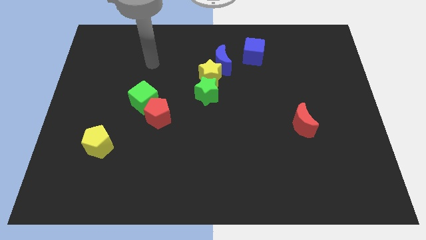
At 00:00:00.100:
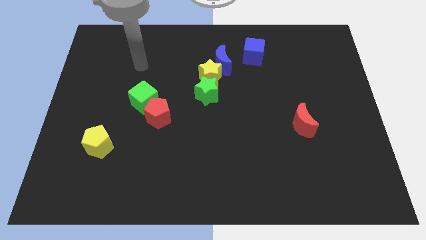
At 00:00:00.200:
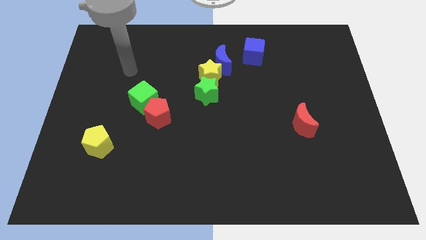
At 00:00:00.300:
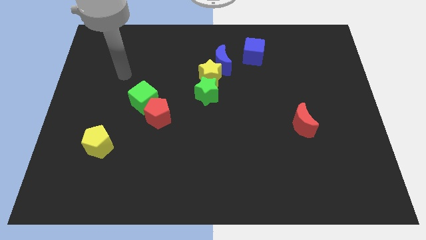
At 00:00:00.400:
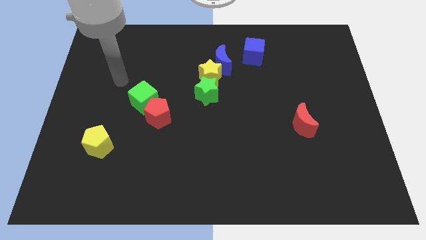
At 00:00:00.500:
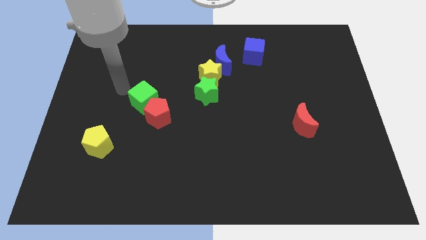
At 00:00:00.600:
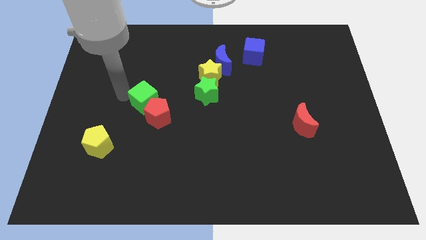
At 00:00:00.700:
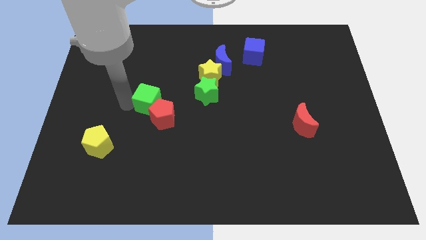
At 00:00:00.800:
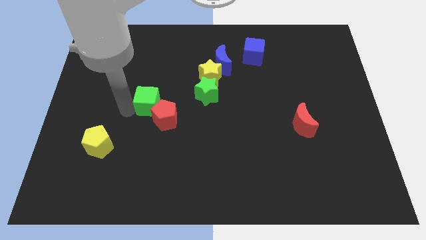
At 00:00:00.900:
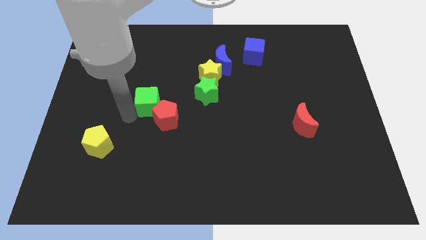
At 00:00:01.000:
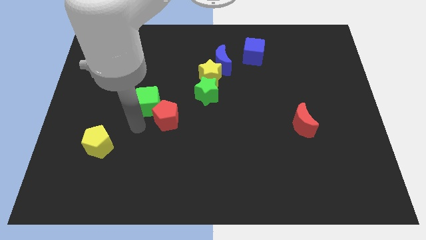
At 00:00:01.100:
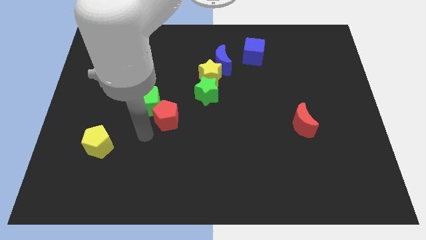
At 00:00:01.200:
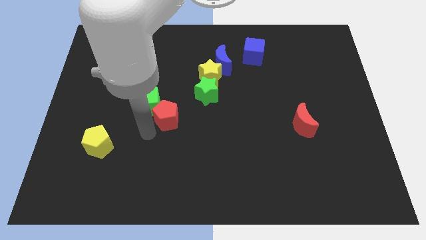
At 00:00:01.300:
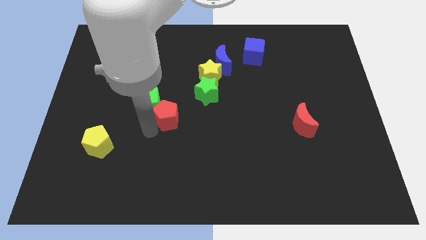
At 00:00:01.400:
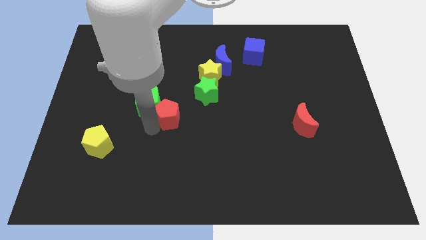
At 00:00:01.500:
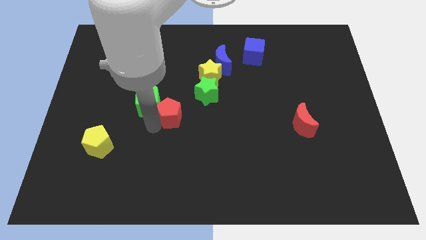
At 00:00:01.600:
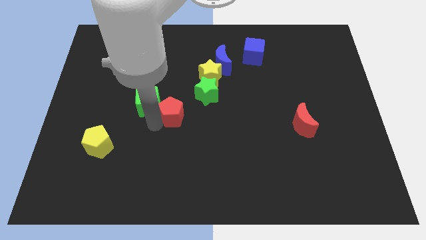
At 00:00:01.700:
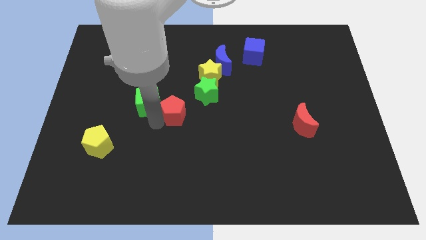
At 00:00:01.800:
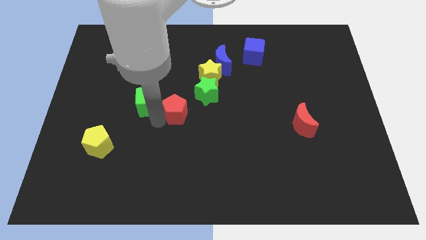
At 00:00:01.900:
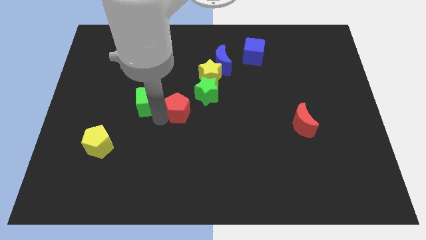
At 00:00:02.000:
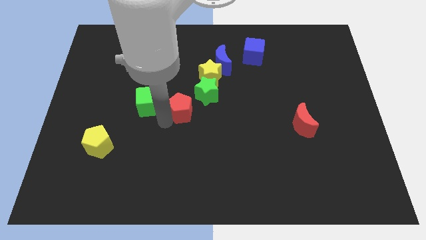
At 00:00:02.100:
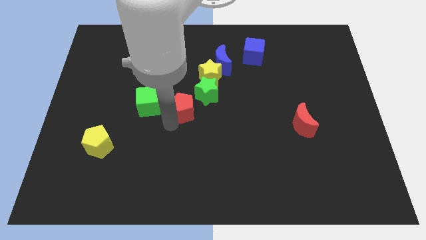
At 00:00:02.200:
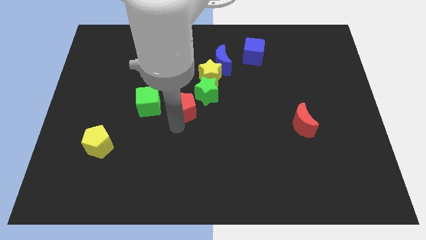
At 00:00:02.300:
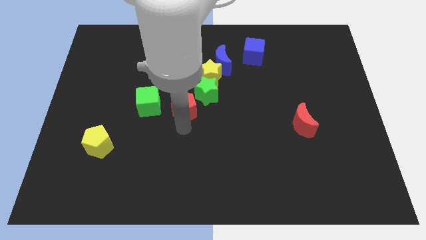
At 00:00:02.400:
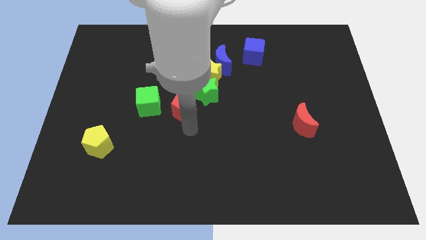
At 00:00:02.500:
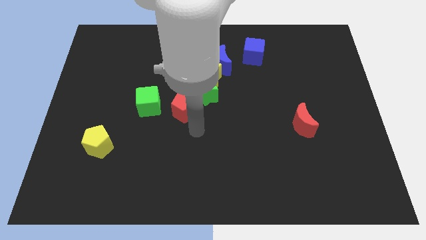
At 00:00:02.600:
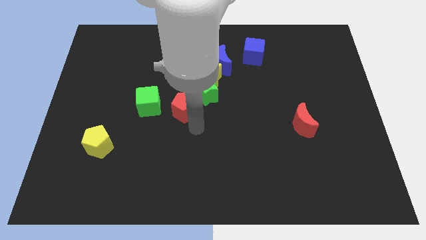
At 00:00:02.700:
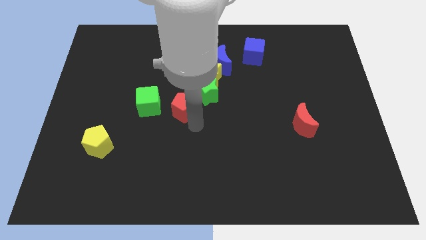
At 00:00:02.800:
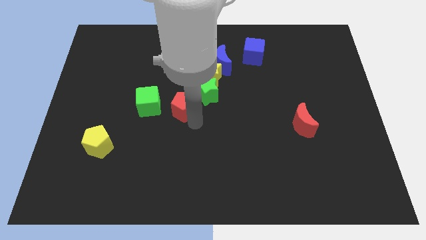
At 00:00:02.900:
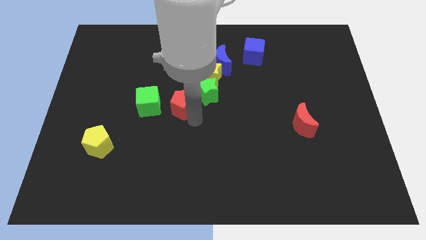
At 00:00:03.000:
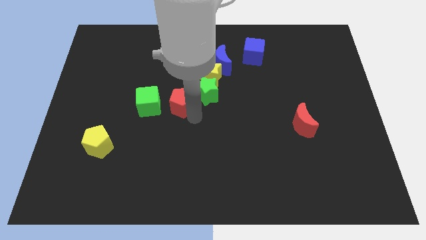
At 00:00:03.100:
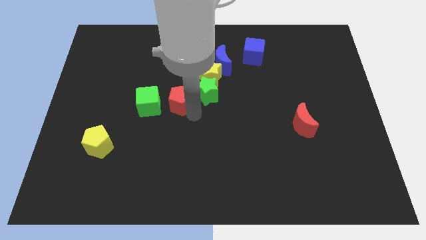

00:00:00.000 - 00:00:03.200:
slide the red pentagon to the top right side of the green cube

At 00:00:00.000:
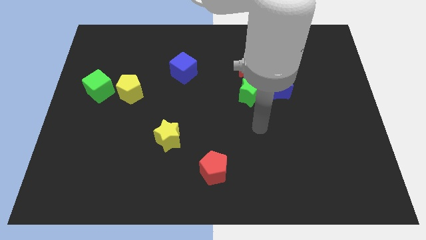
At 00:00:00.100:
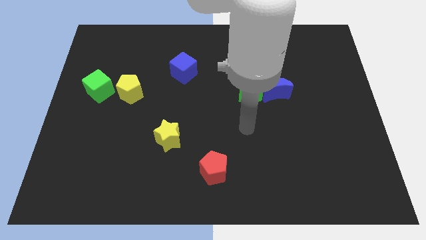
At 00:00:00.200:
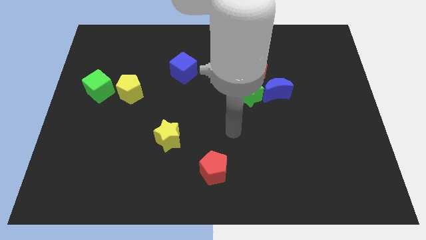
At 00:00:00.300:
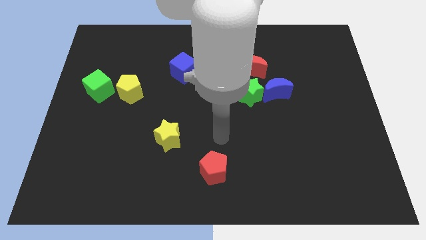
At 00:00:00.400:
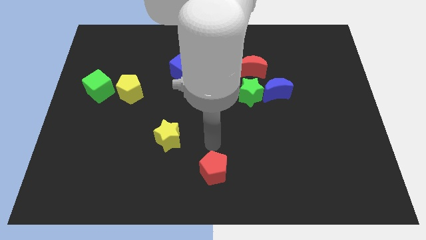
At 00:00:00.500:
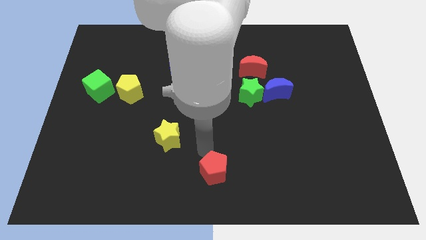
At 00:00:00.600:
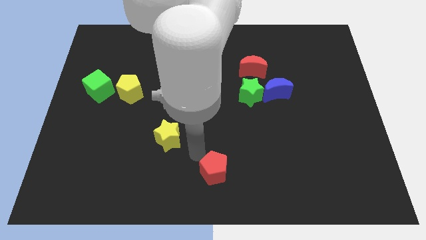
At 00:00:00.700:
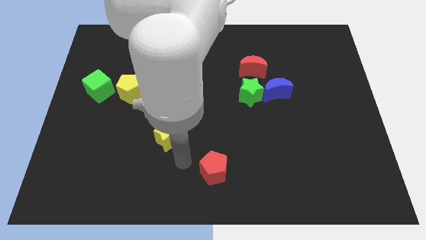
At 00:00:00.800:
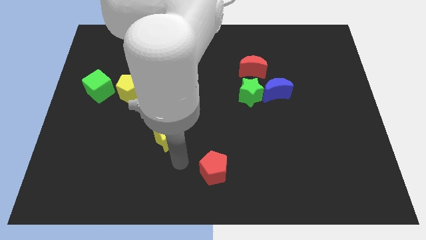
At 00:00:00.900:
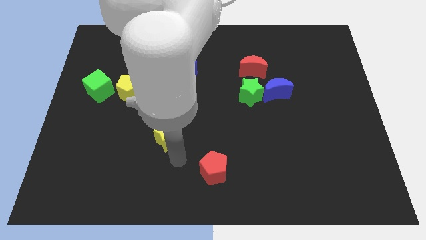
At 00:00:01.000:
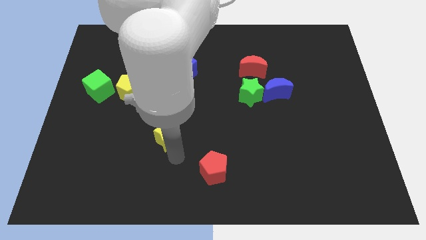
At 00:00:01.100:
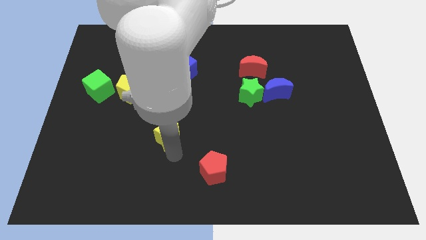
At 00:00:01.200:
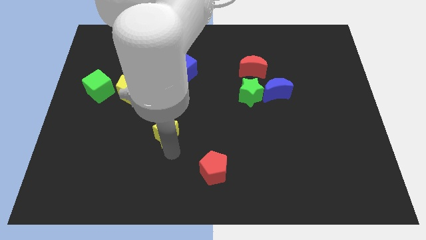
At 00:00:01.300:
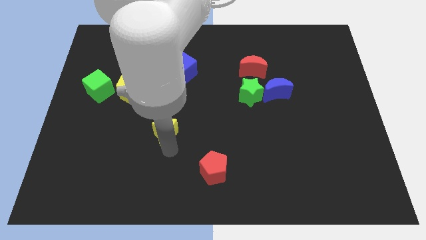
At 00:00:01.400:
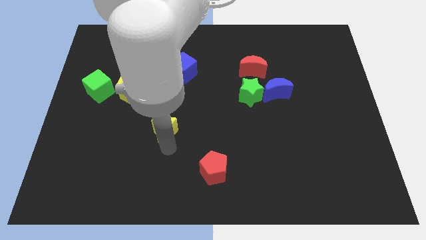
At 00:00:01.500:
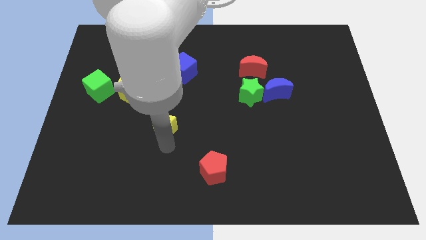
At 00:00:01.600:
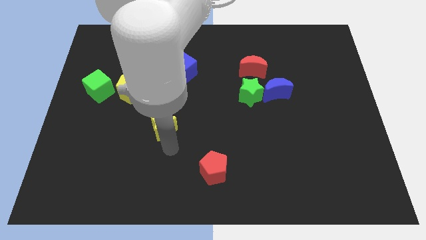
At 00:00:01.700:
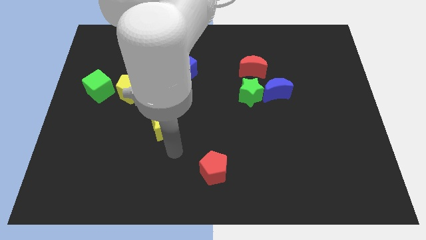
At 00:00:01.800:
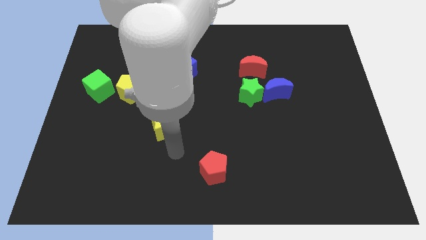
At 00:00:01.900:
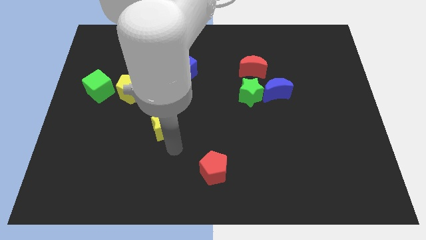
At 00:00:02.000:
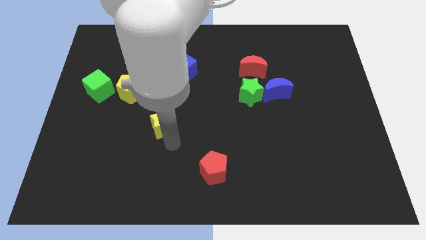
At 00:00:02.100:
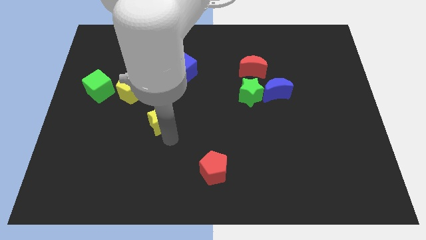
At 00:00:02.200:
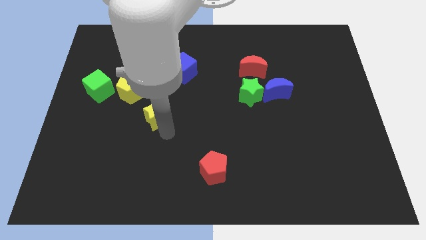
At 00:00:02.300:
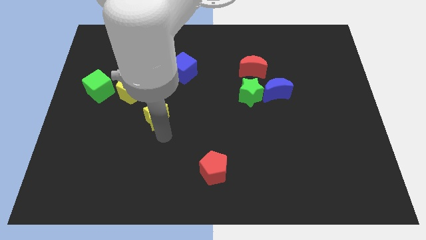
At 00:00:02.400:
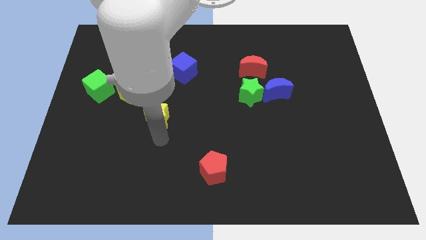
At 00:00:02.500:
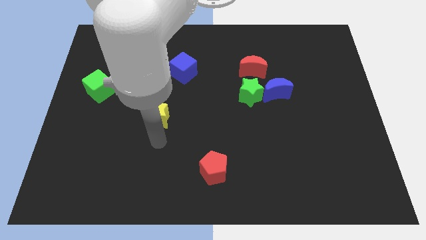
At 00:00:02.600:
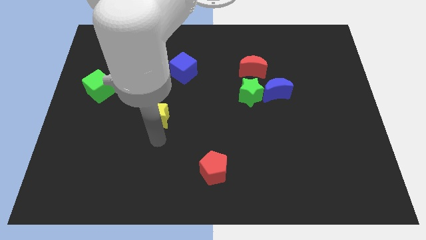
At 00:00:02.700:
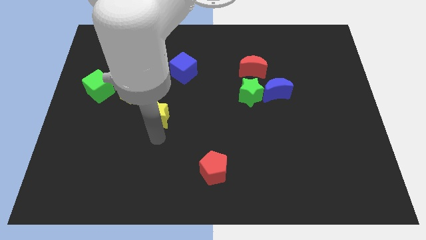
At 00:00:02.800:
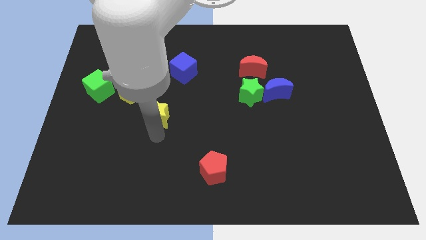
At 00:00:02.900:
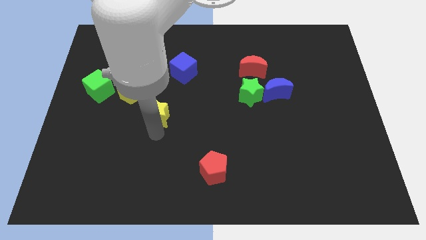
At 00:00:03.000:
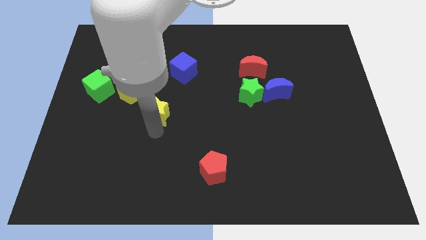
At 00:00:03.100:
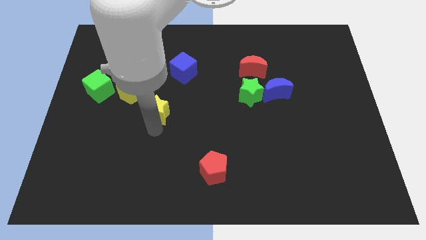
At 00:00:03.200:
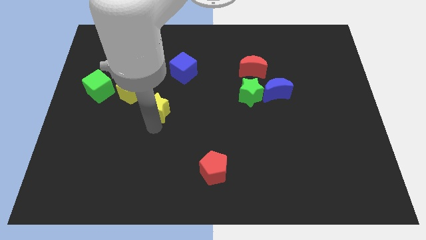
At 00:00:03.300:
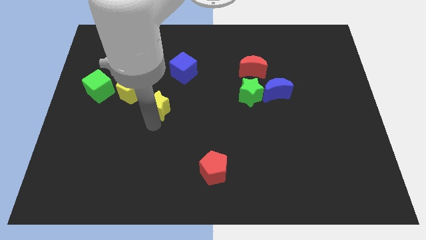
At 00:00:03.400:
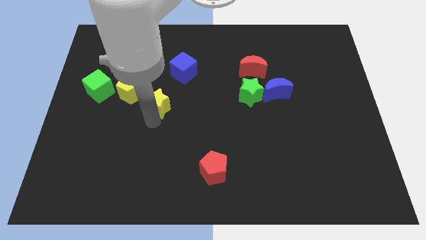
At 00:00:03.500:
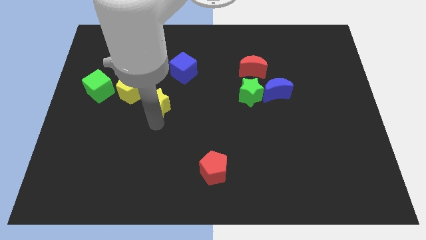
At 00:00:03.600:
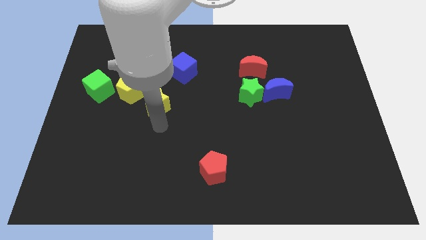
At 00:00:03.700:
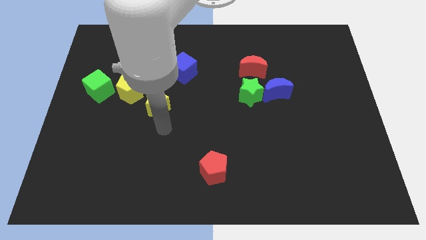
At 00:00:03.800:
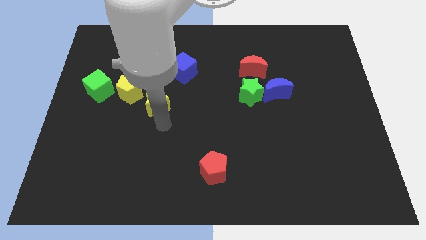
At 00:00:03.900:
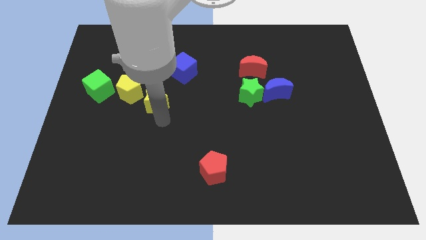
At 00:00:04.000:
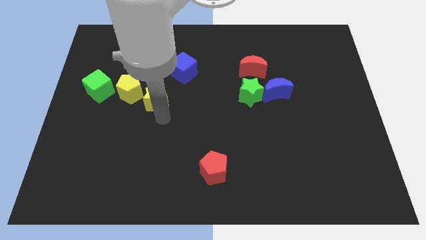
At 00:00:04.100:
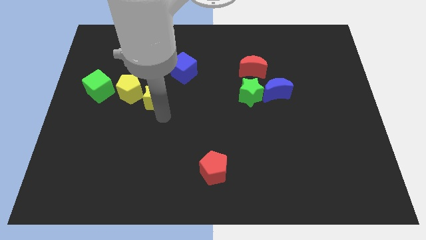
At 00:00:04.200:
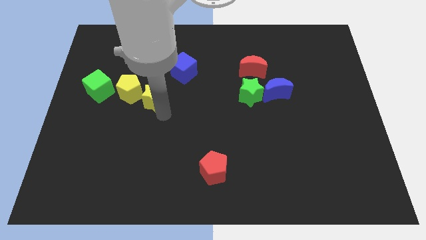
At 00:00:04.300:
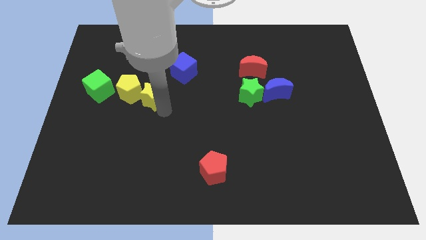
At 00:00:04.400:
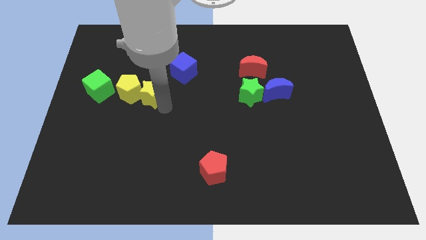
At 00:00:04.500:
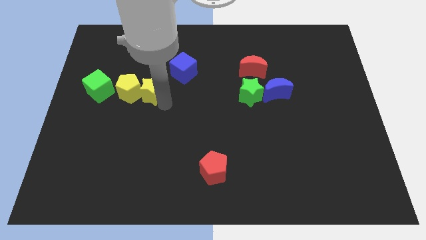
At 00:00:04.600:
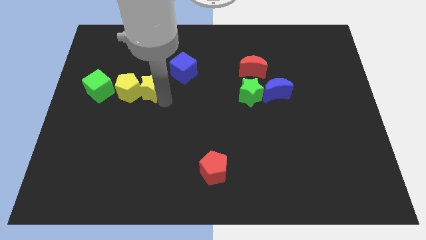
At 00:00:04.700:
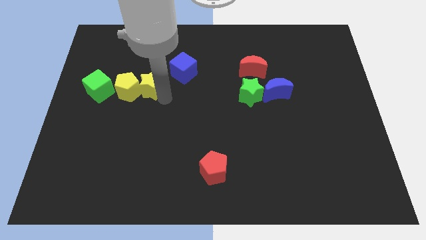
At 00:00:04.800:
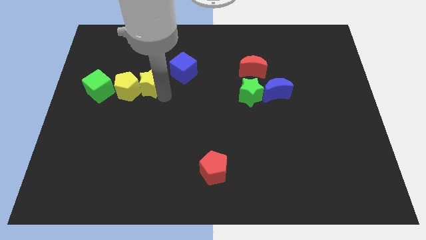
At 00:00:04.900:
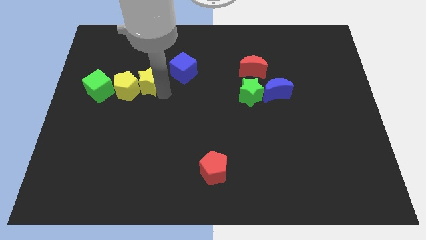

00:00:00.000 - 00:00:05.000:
move the yellow star to the left of the blue cube
